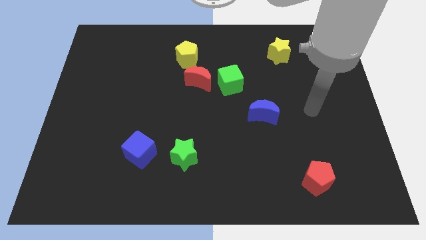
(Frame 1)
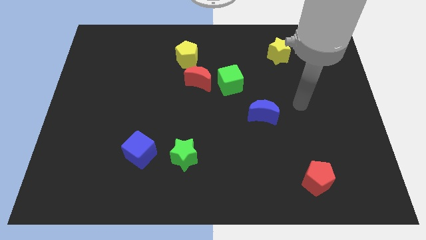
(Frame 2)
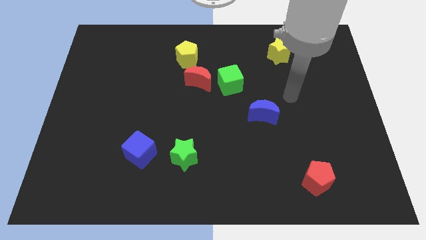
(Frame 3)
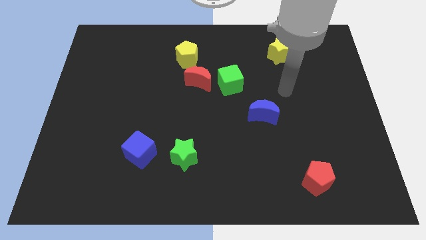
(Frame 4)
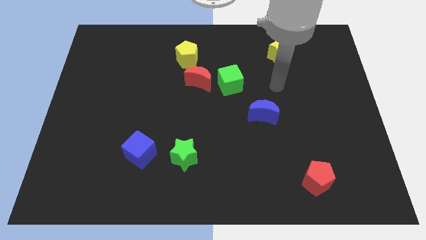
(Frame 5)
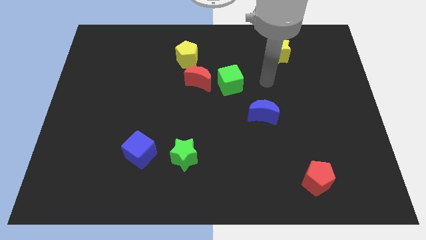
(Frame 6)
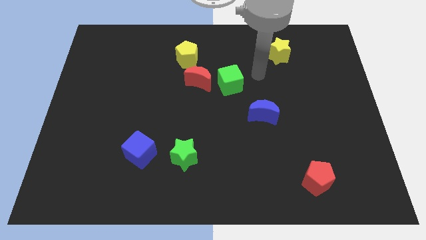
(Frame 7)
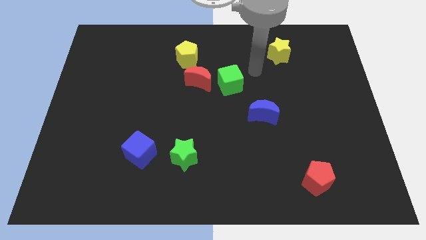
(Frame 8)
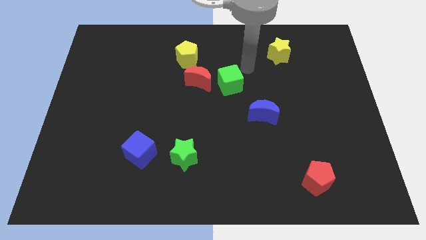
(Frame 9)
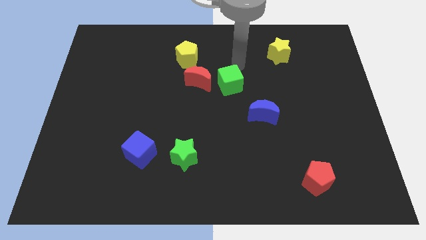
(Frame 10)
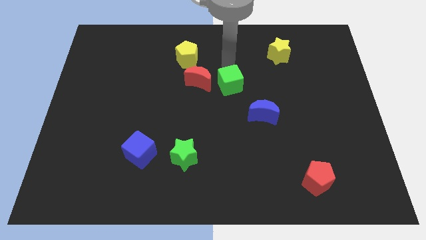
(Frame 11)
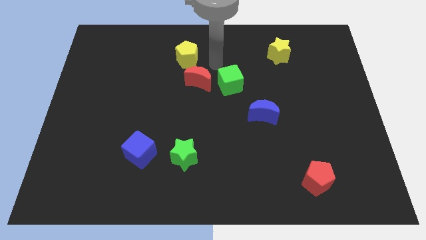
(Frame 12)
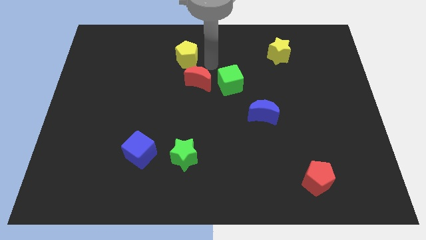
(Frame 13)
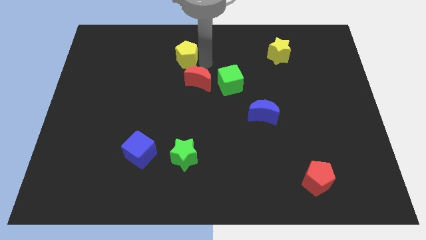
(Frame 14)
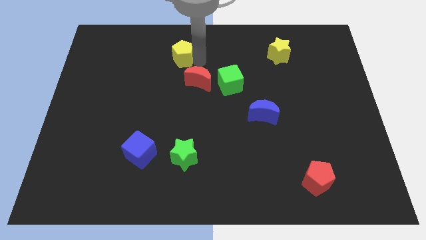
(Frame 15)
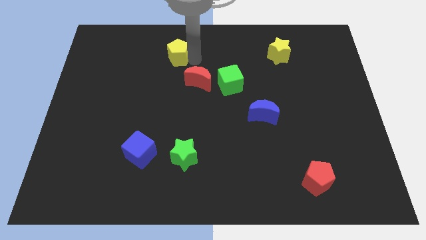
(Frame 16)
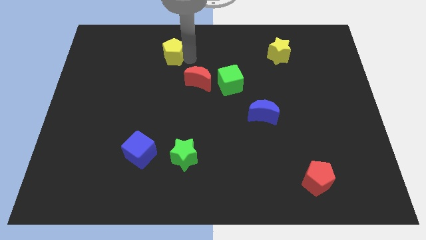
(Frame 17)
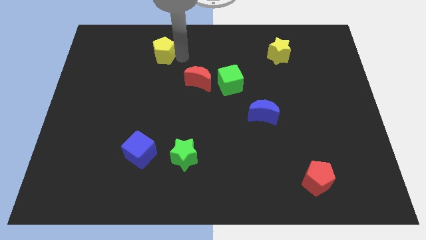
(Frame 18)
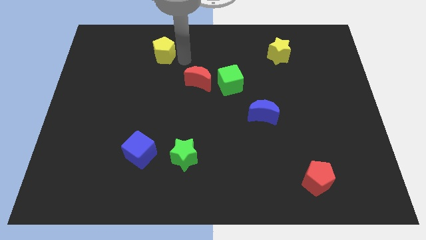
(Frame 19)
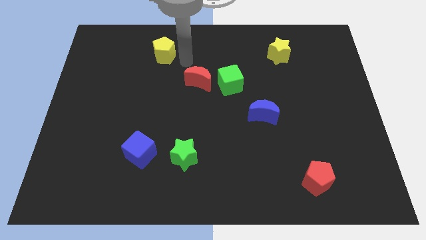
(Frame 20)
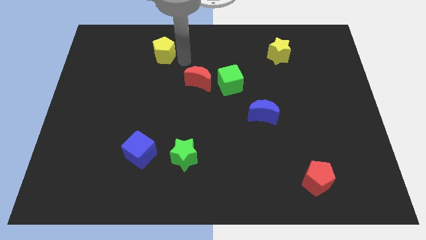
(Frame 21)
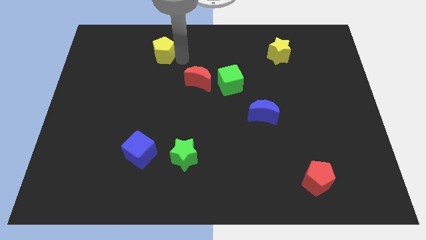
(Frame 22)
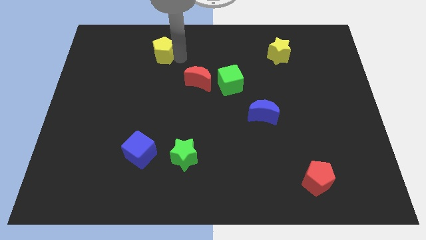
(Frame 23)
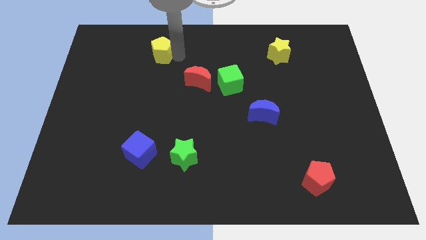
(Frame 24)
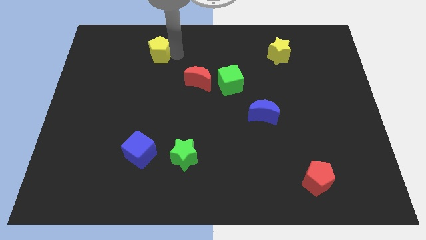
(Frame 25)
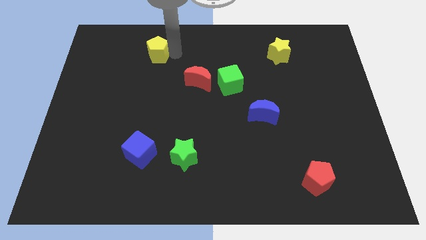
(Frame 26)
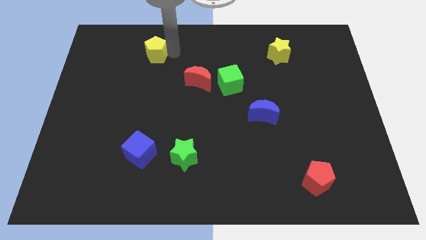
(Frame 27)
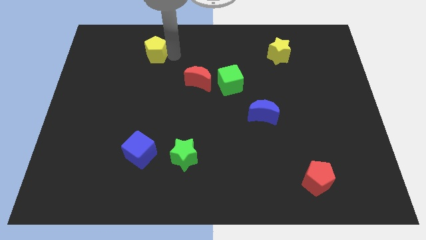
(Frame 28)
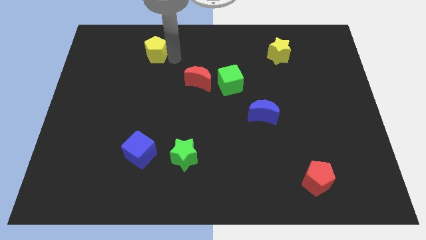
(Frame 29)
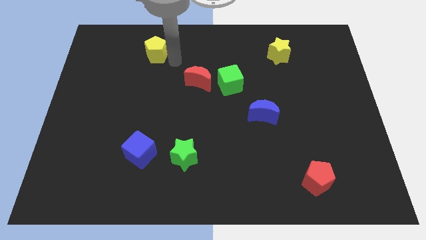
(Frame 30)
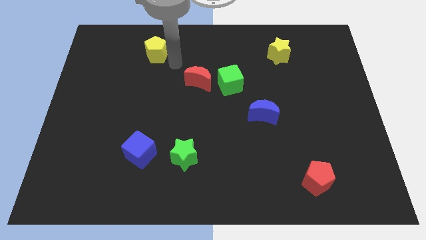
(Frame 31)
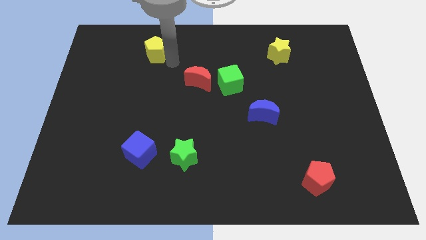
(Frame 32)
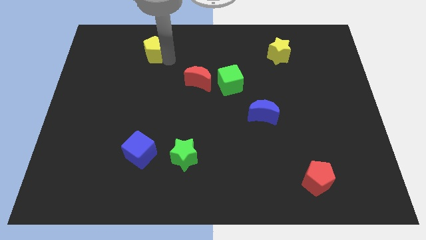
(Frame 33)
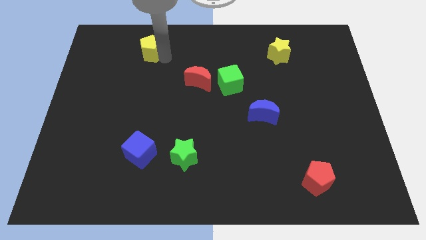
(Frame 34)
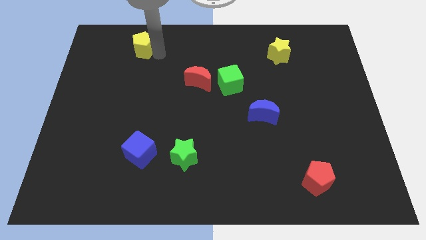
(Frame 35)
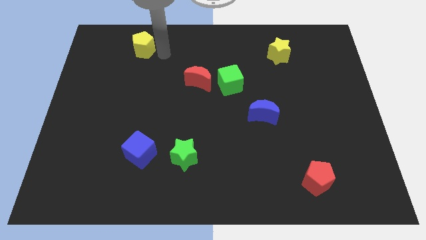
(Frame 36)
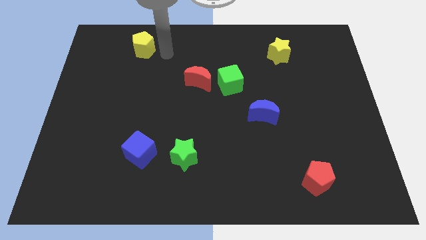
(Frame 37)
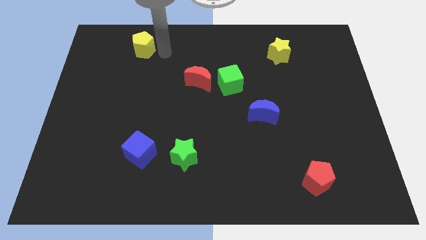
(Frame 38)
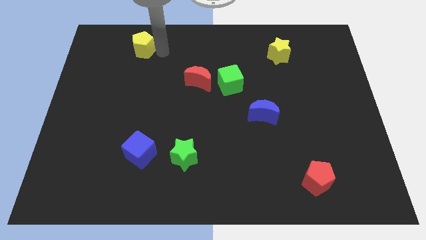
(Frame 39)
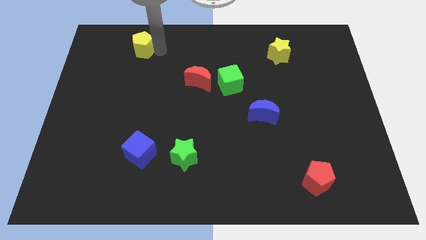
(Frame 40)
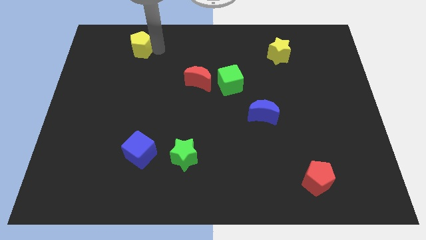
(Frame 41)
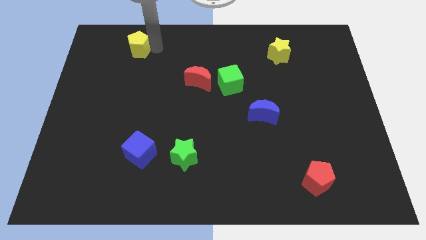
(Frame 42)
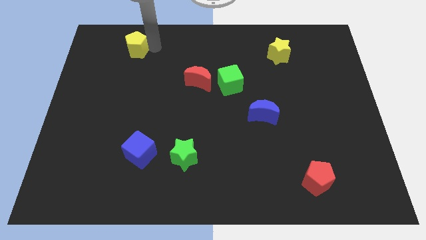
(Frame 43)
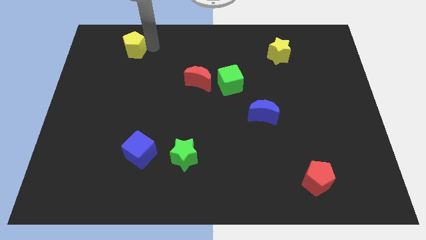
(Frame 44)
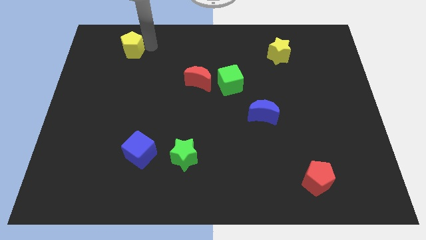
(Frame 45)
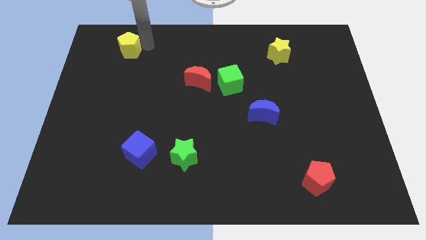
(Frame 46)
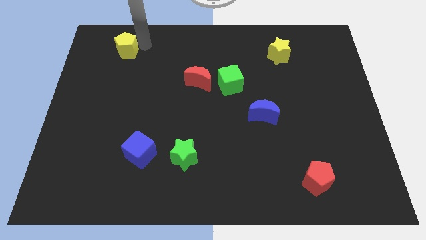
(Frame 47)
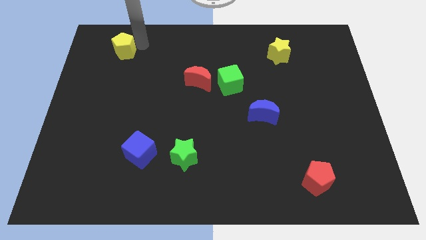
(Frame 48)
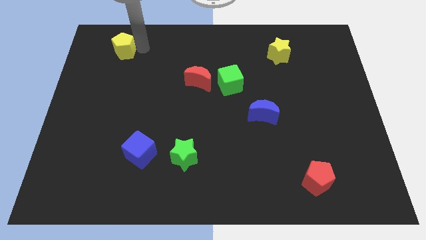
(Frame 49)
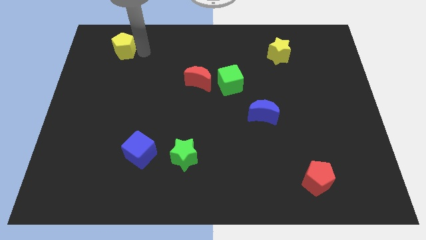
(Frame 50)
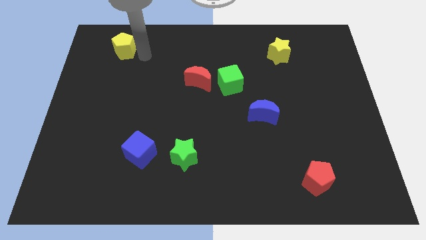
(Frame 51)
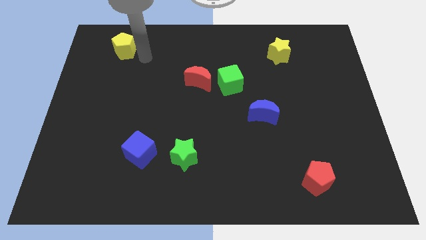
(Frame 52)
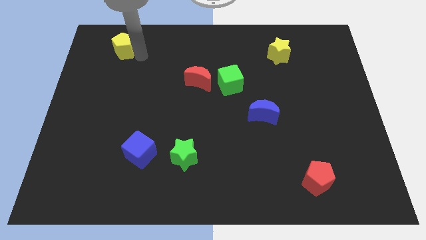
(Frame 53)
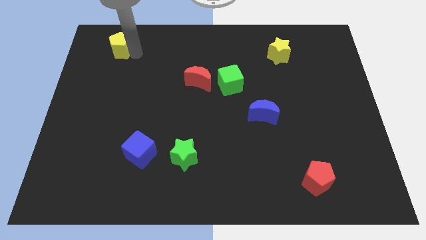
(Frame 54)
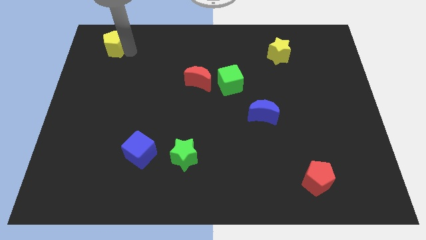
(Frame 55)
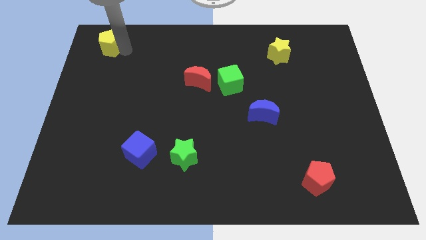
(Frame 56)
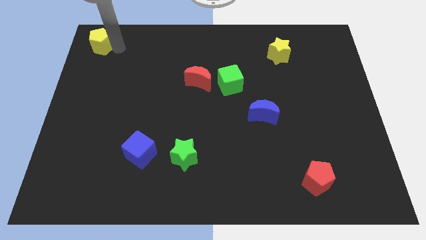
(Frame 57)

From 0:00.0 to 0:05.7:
put the yellow pentagon to the top left
